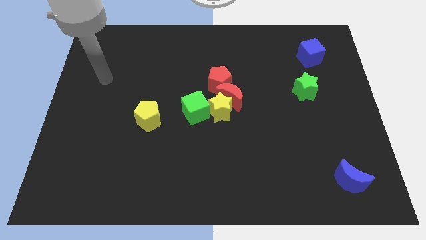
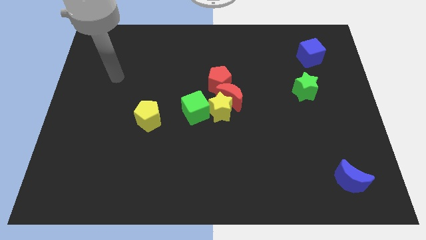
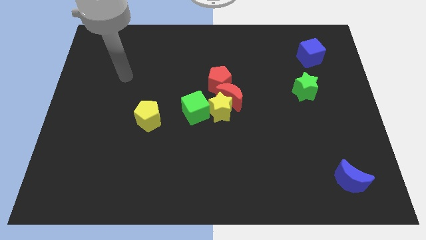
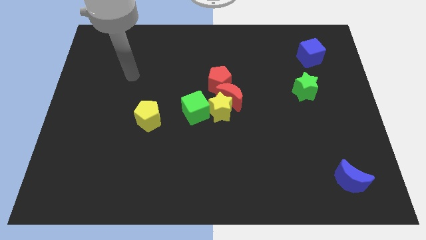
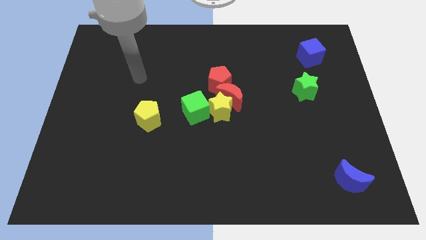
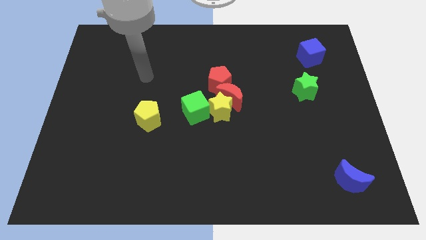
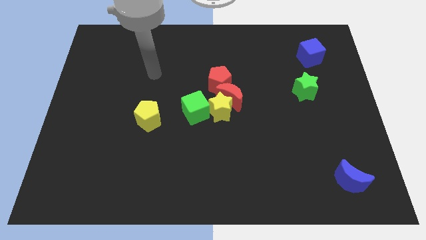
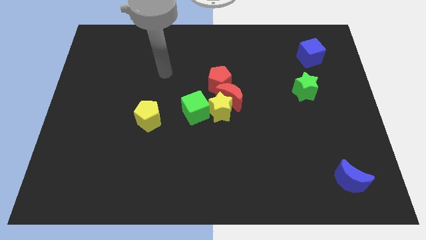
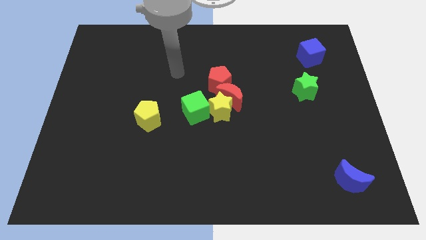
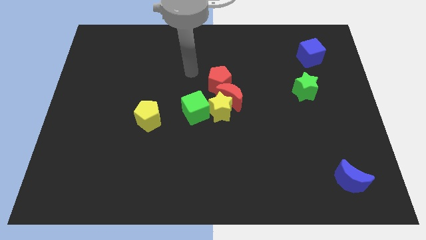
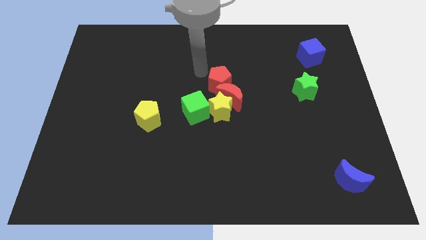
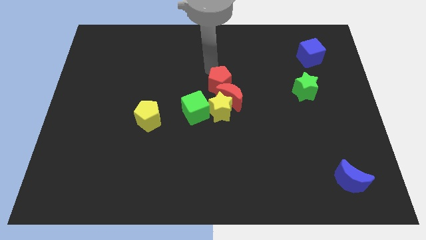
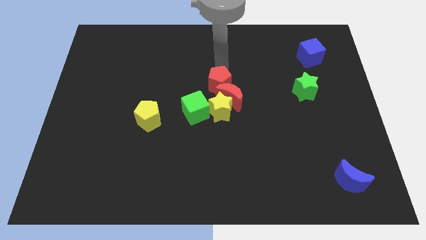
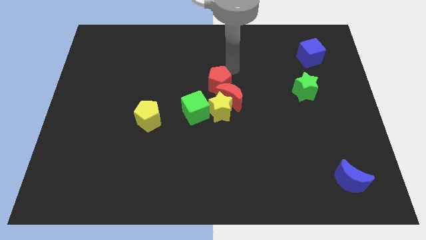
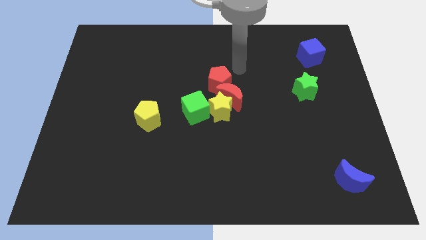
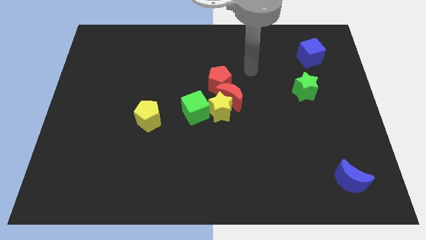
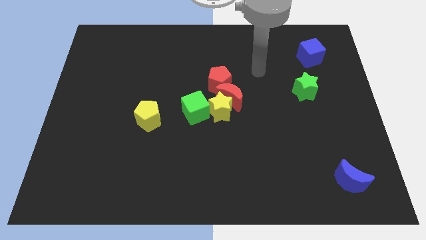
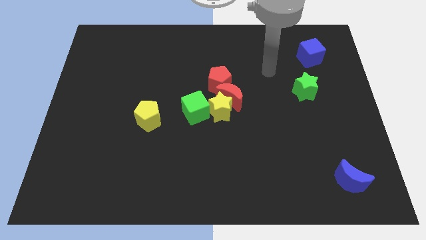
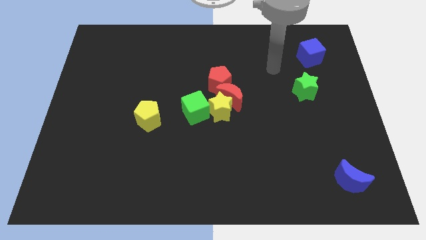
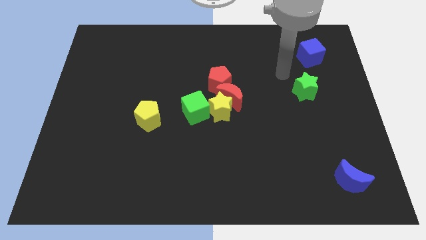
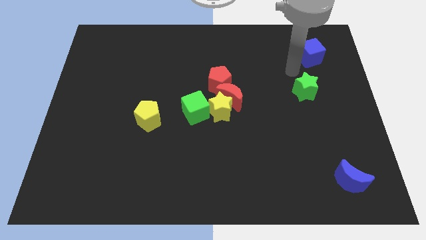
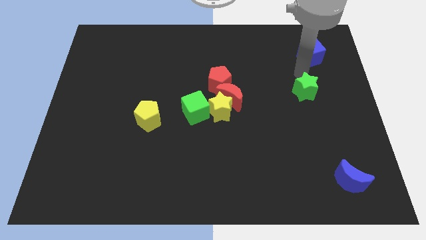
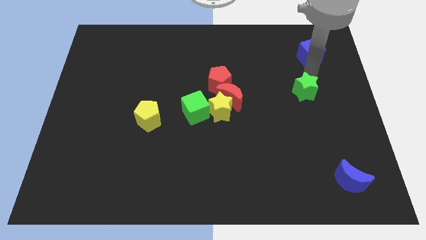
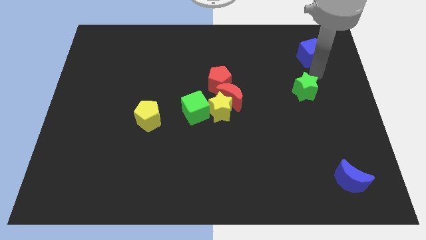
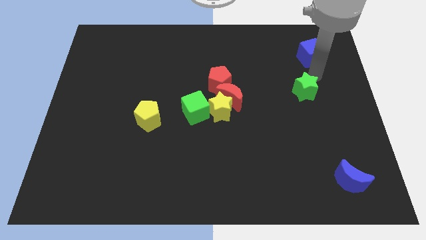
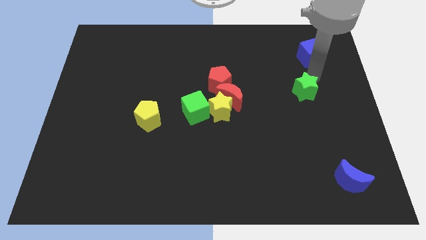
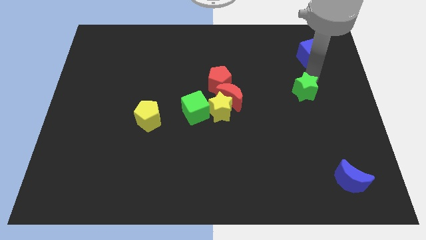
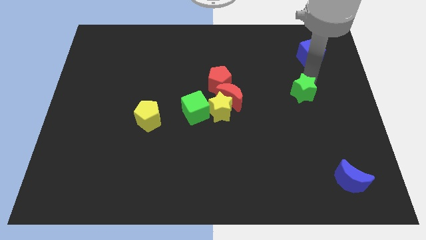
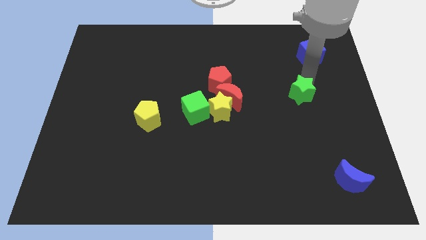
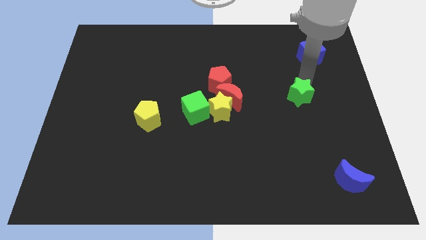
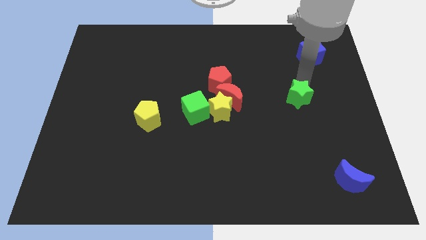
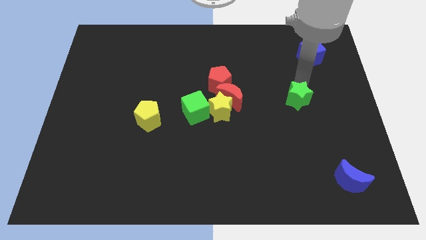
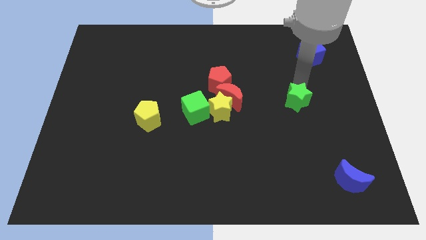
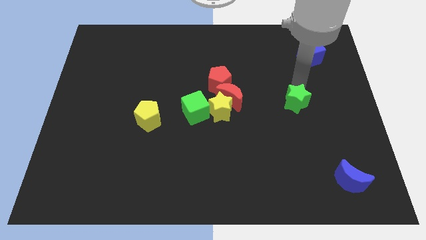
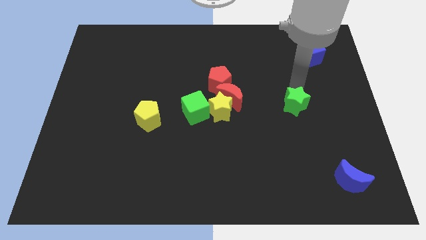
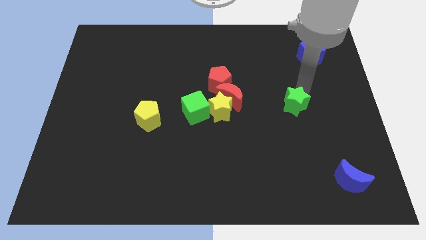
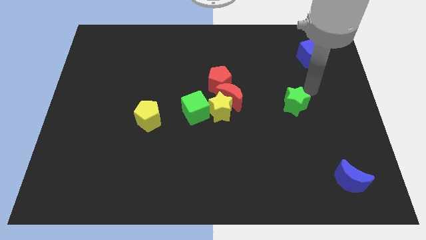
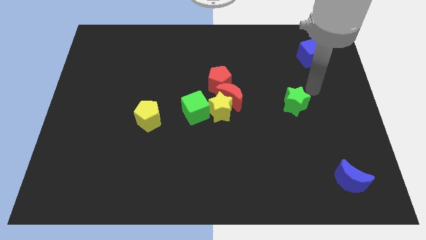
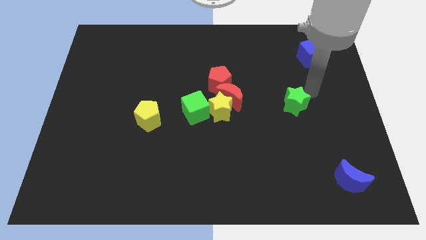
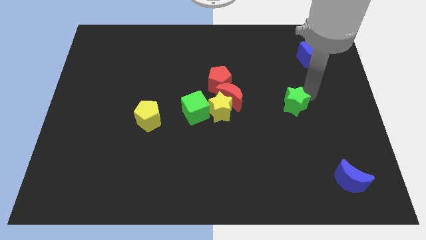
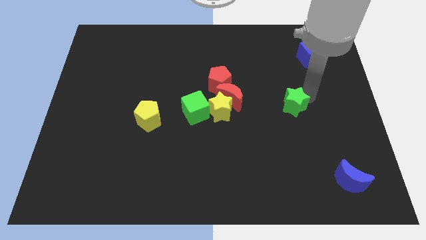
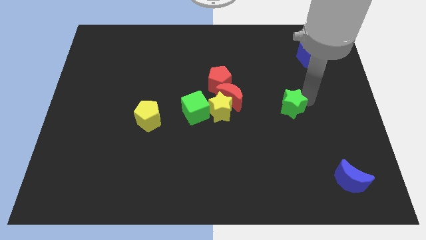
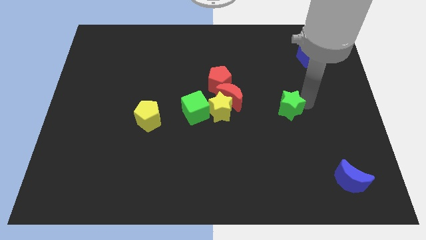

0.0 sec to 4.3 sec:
slide the green star down and then left somewhat

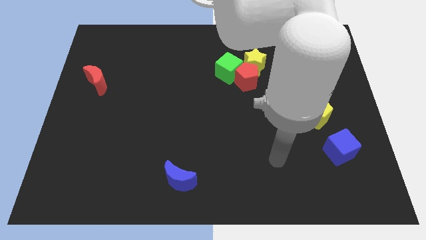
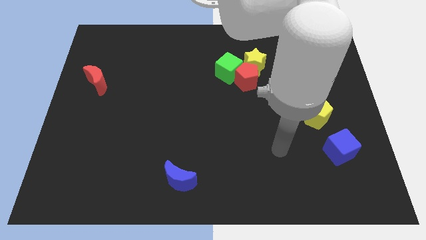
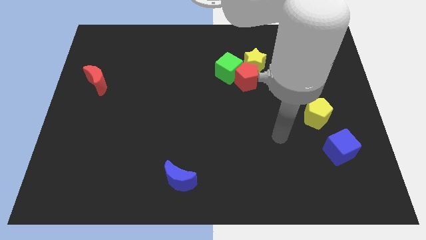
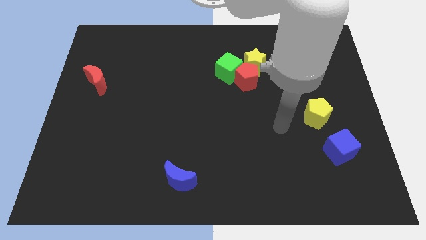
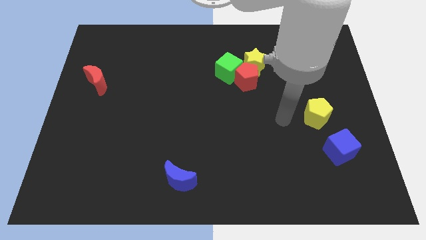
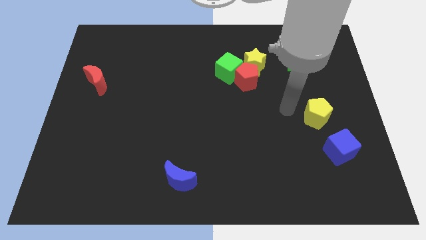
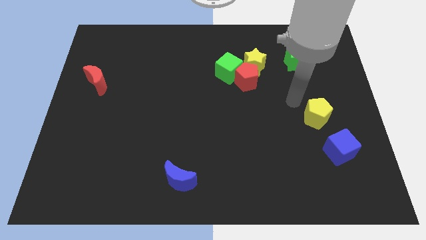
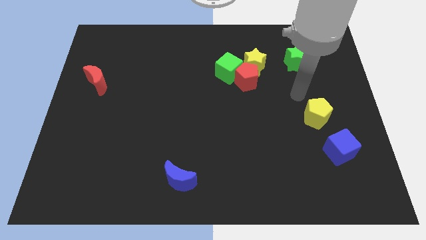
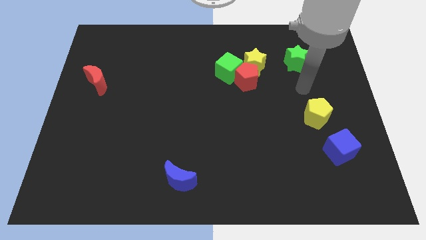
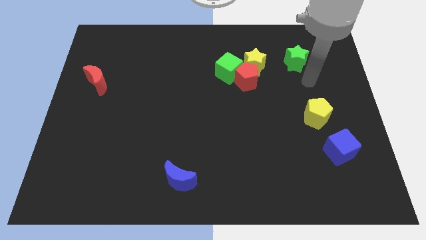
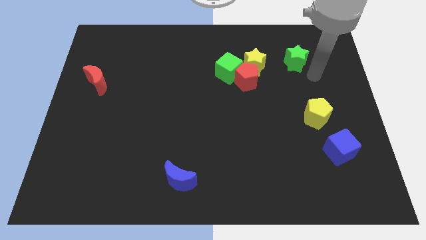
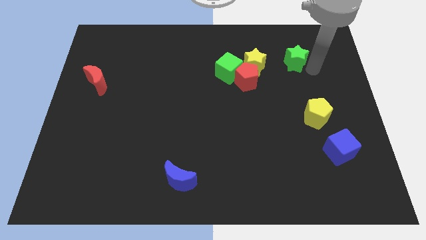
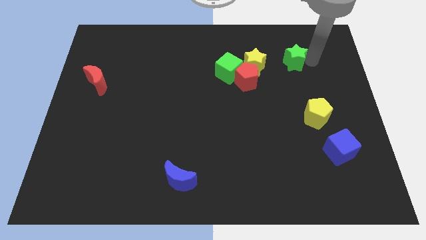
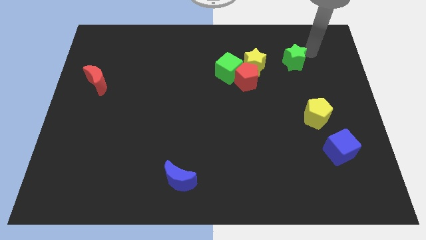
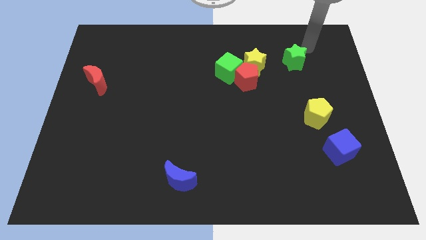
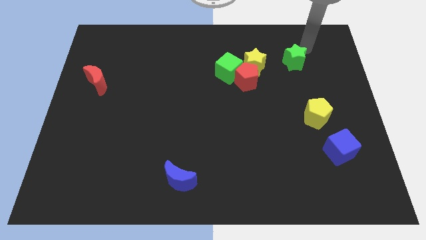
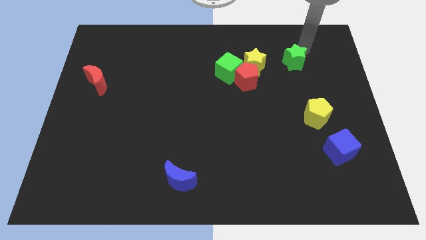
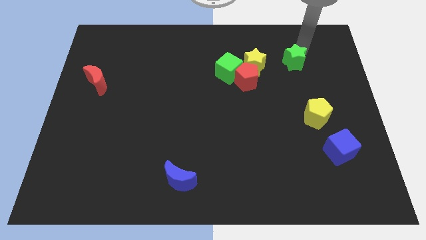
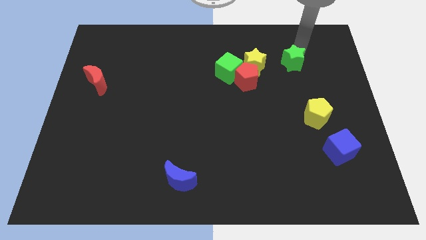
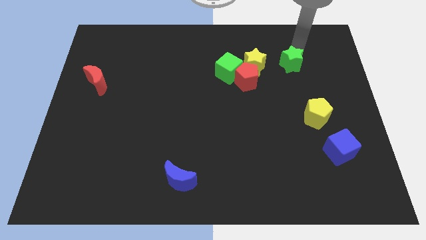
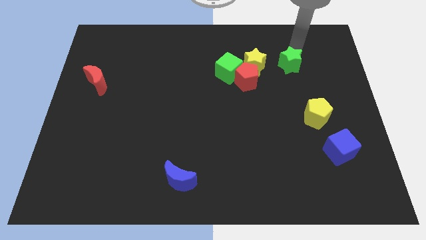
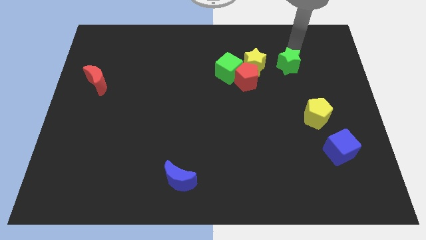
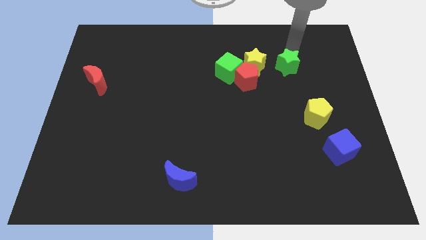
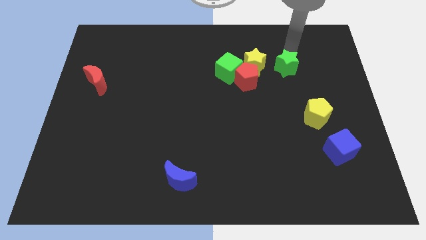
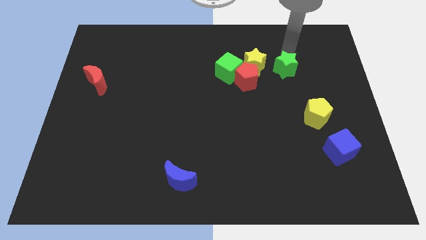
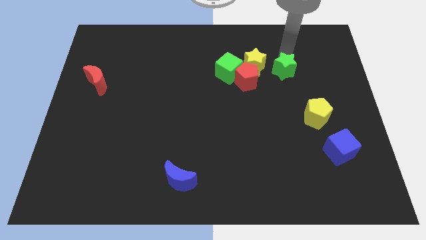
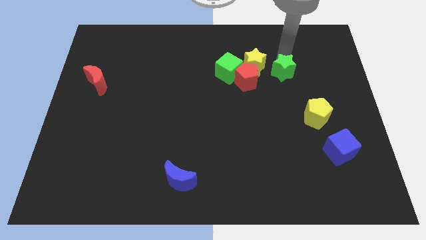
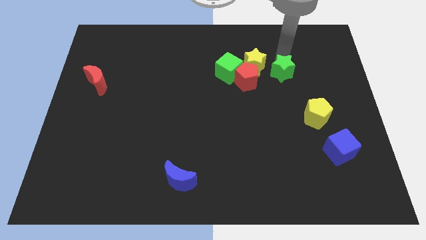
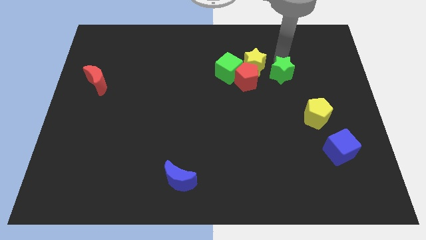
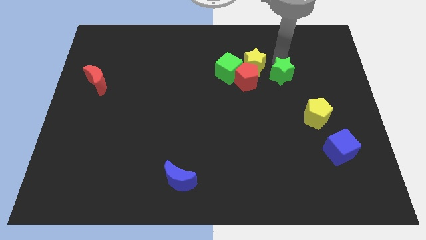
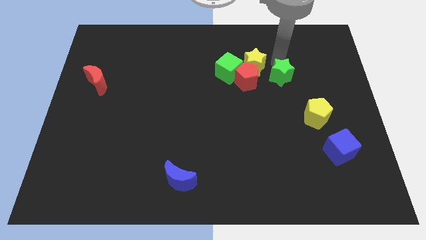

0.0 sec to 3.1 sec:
move the green star downwards and left diagonally somewhat

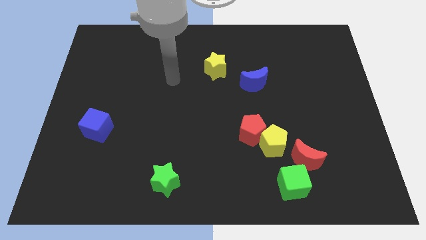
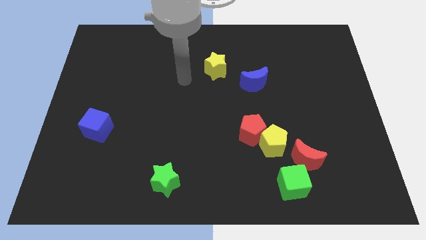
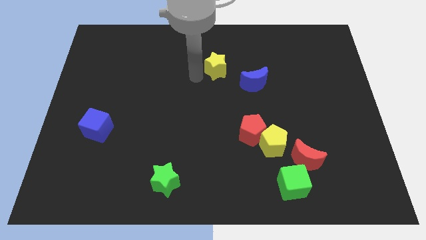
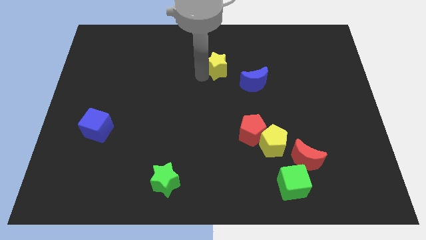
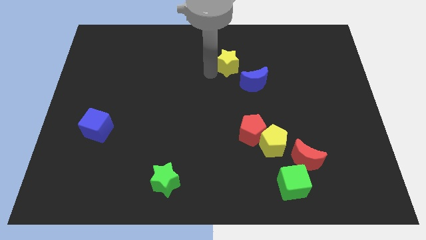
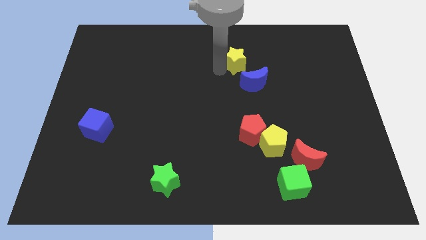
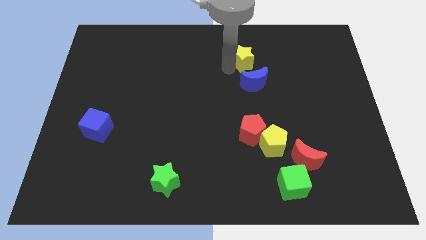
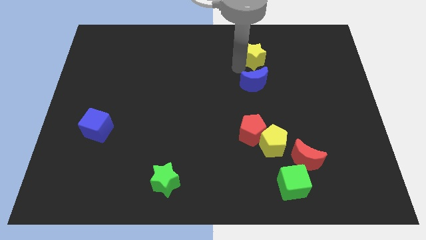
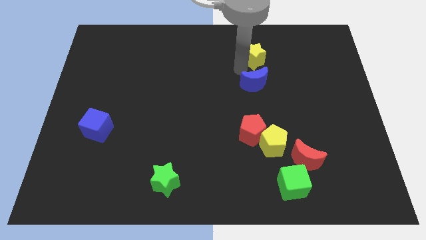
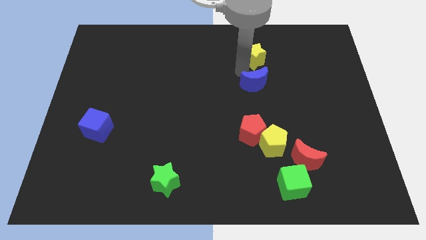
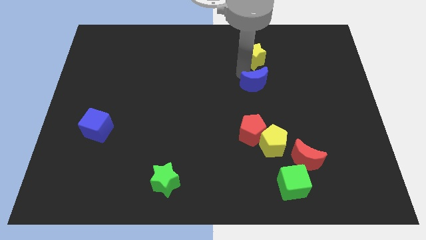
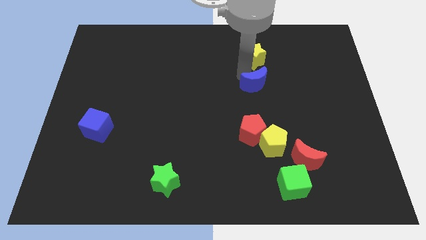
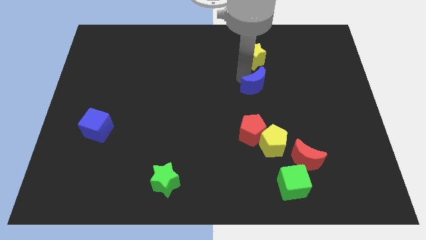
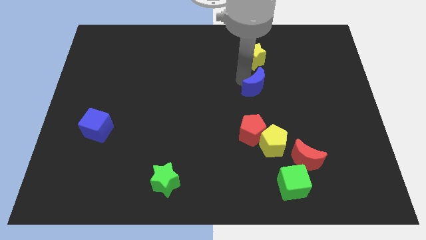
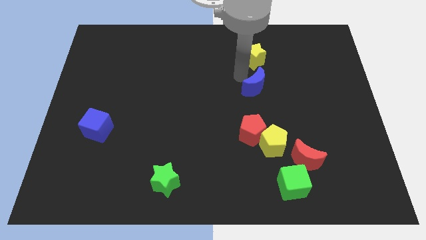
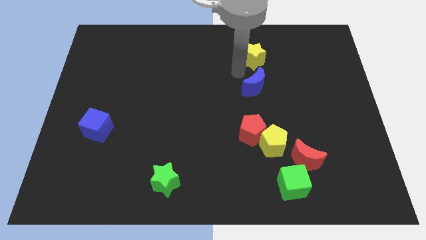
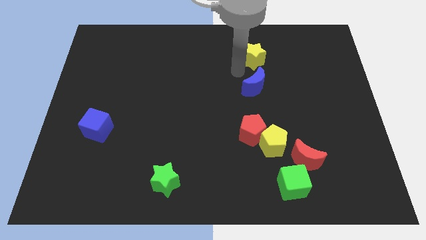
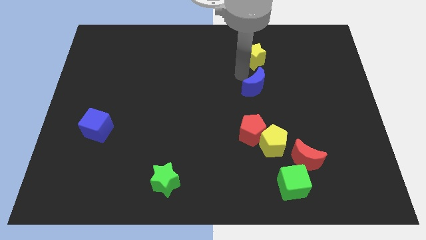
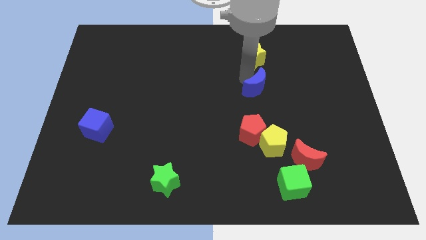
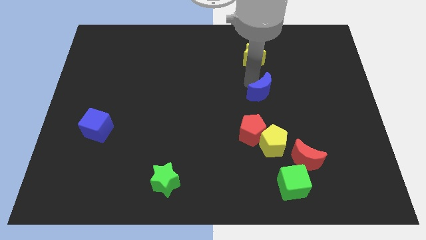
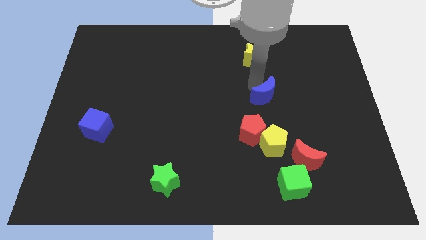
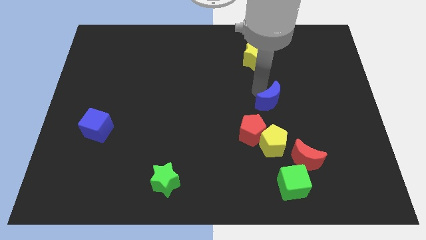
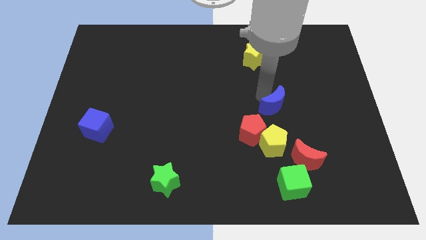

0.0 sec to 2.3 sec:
slightly move the blue moon diagonally down and right
